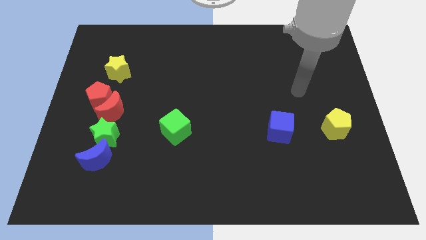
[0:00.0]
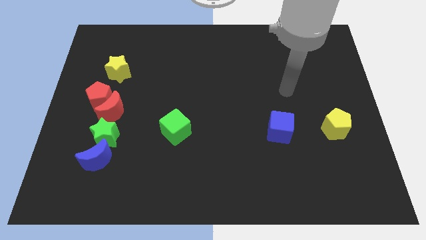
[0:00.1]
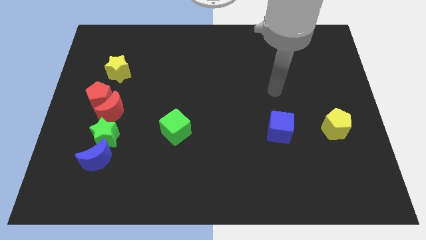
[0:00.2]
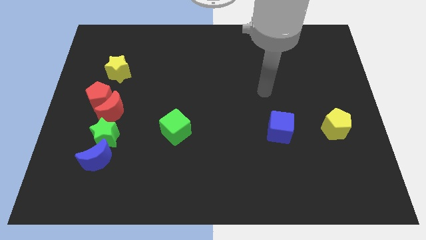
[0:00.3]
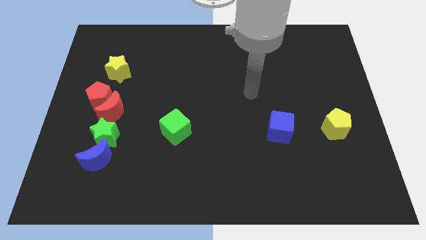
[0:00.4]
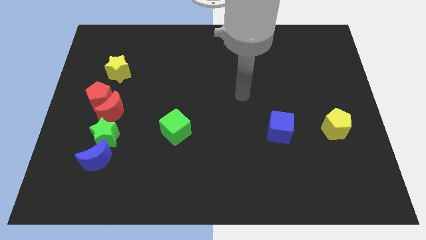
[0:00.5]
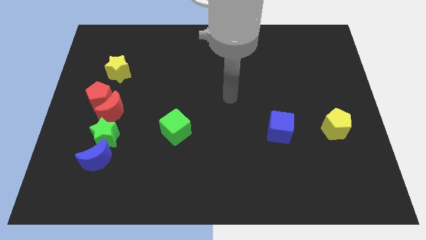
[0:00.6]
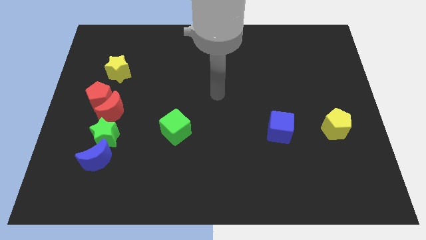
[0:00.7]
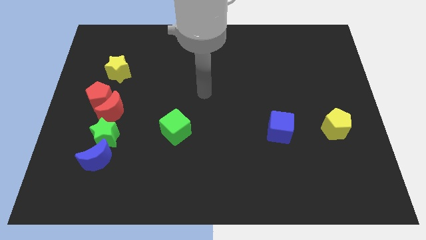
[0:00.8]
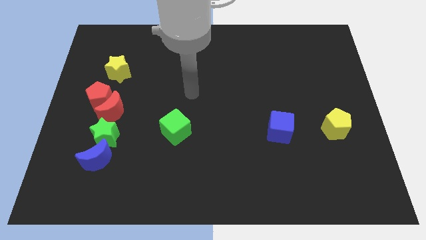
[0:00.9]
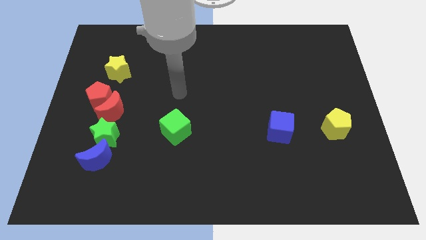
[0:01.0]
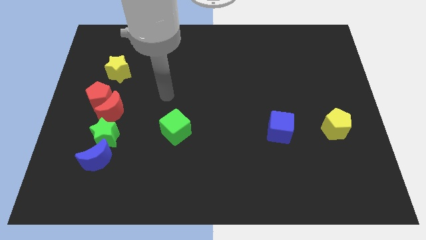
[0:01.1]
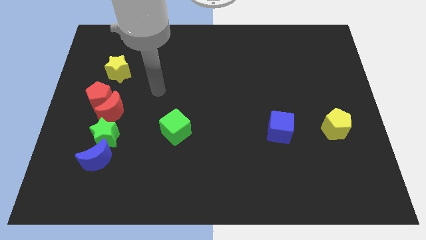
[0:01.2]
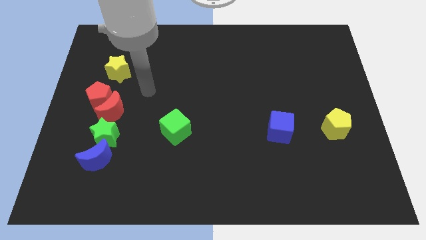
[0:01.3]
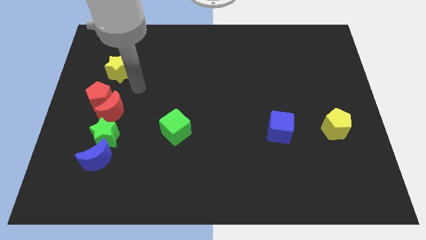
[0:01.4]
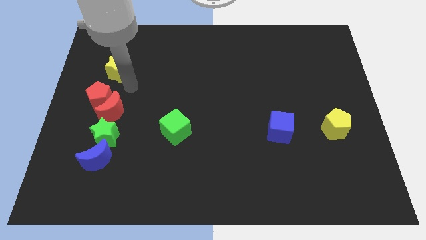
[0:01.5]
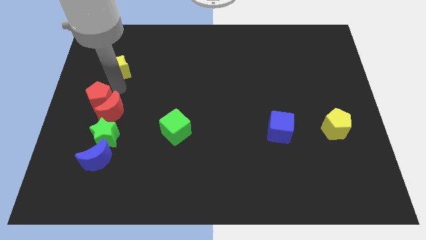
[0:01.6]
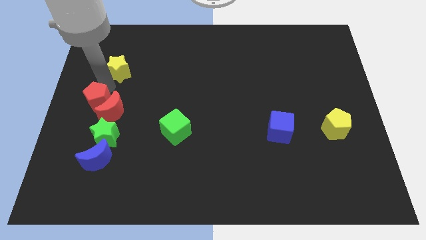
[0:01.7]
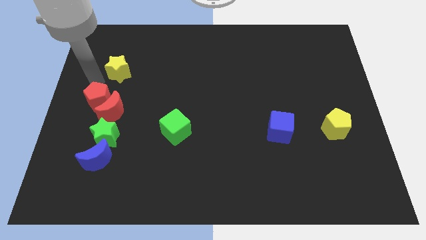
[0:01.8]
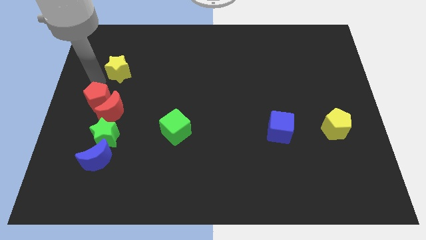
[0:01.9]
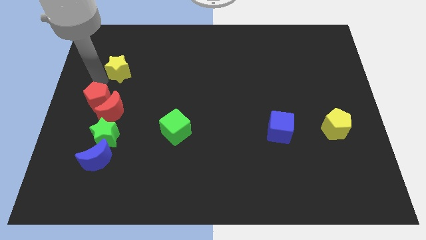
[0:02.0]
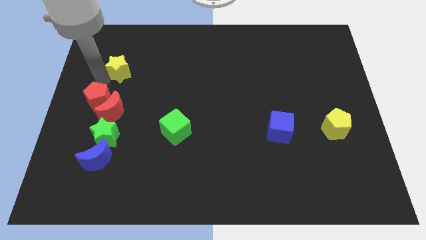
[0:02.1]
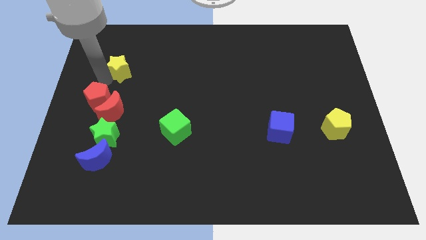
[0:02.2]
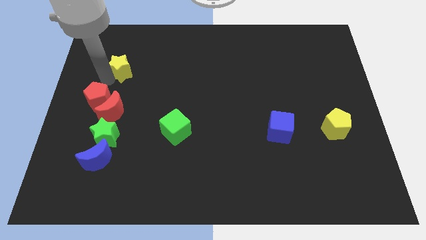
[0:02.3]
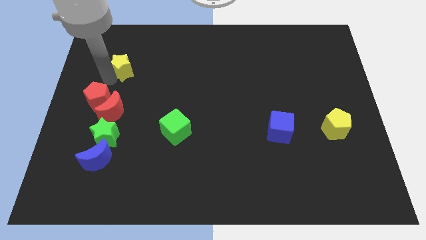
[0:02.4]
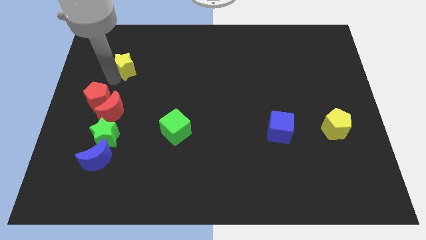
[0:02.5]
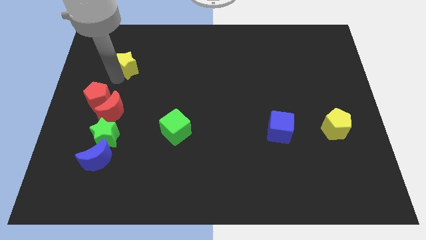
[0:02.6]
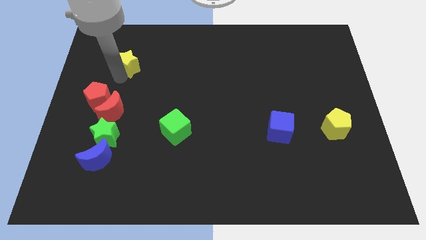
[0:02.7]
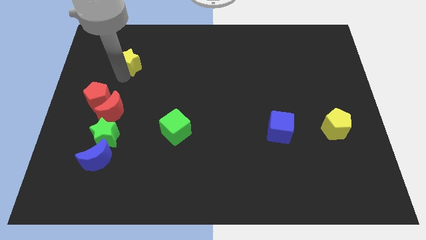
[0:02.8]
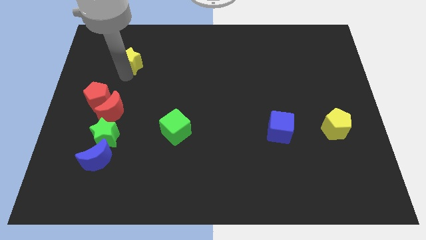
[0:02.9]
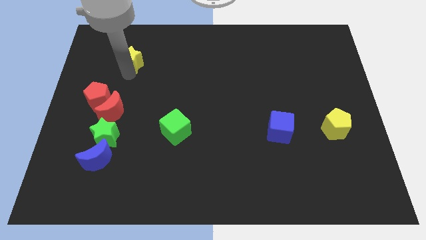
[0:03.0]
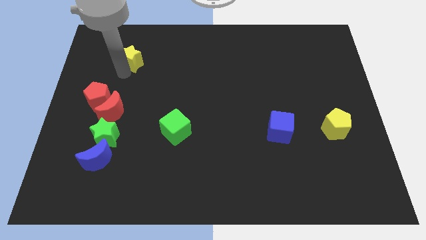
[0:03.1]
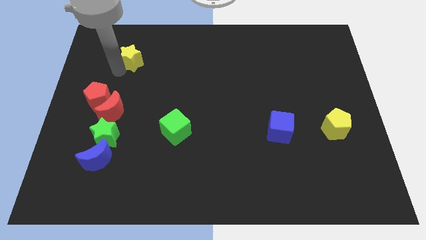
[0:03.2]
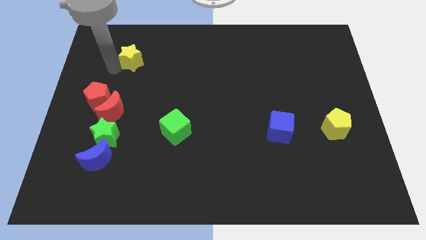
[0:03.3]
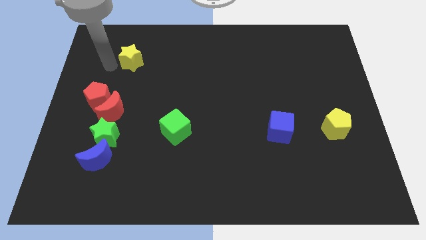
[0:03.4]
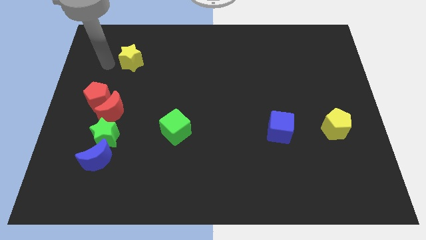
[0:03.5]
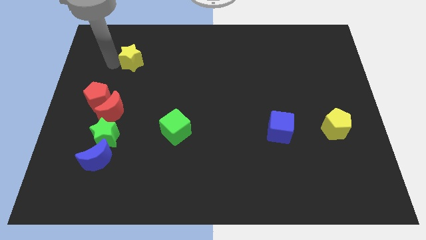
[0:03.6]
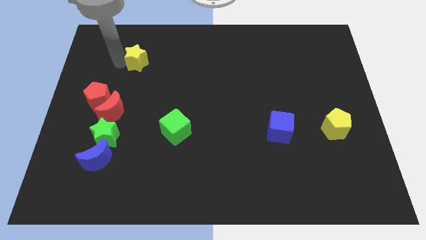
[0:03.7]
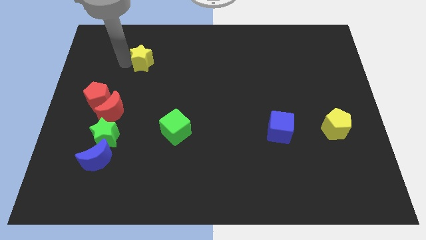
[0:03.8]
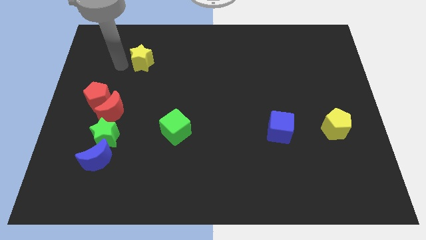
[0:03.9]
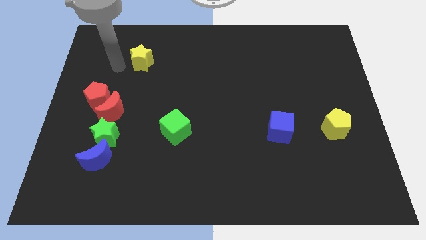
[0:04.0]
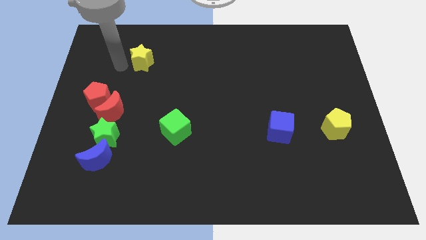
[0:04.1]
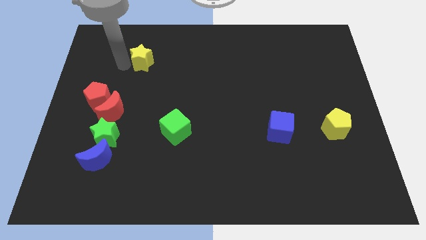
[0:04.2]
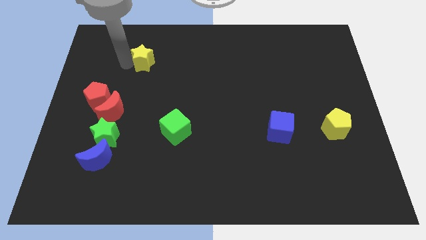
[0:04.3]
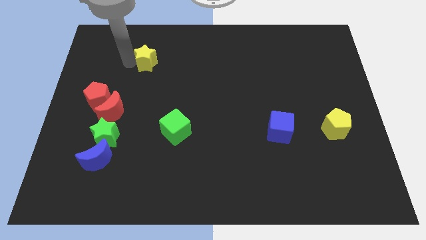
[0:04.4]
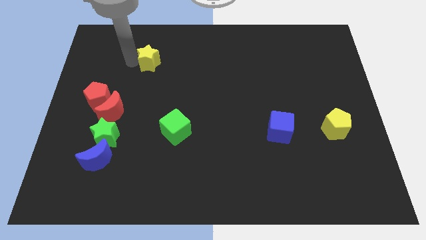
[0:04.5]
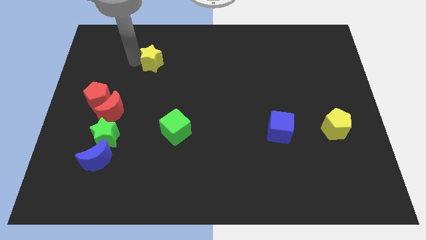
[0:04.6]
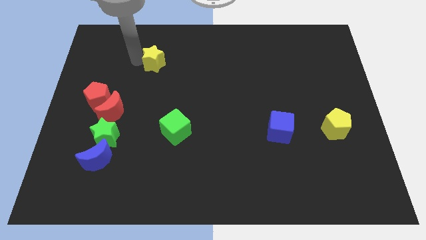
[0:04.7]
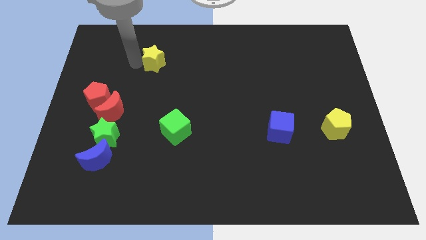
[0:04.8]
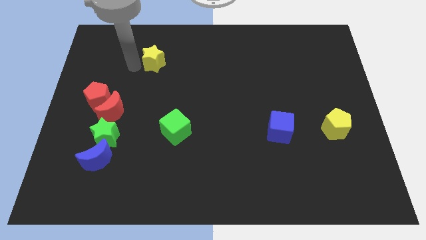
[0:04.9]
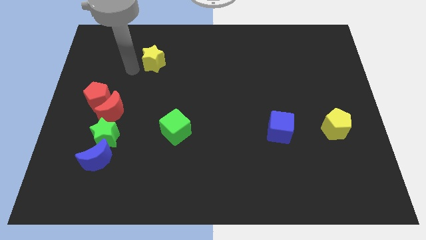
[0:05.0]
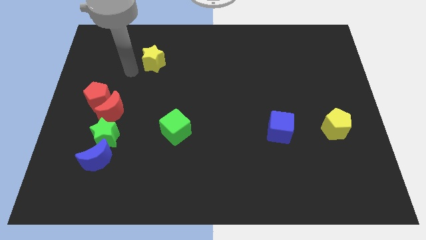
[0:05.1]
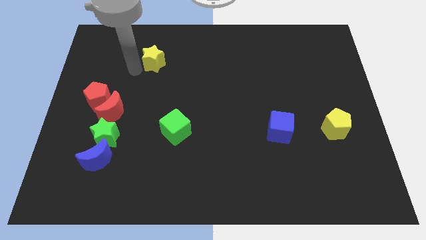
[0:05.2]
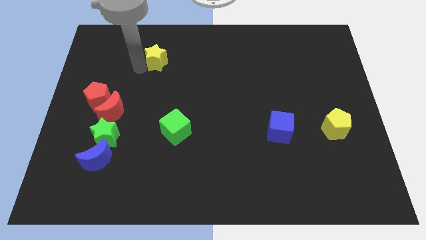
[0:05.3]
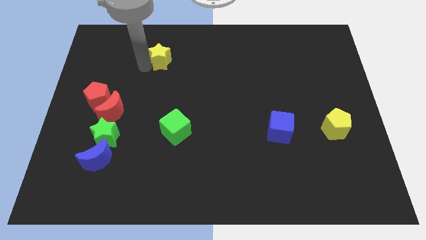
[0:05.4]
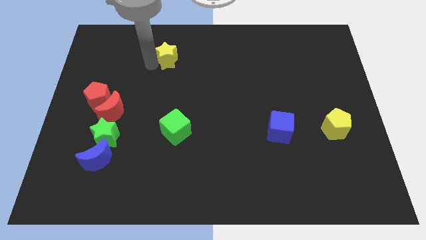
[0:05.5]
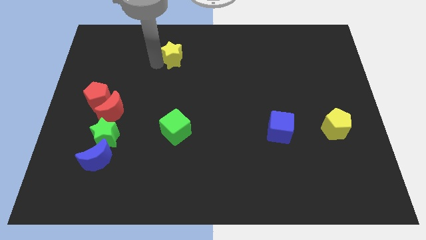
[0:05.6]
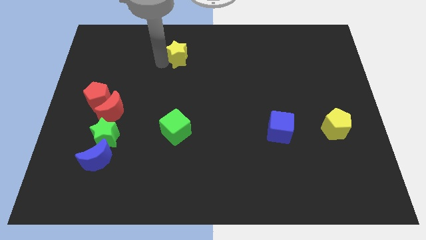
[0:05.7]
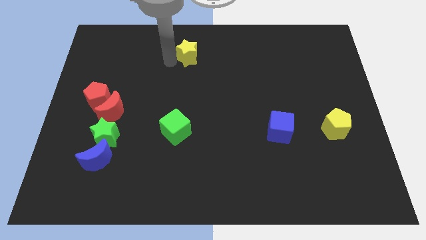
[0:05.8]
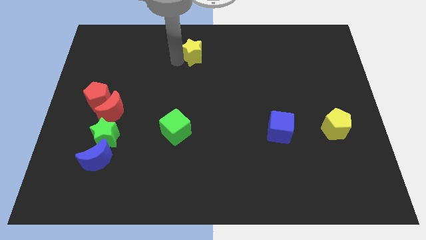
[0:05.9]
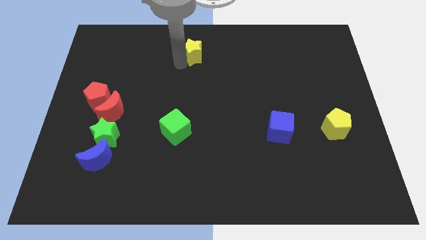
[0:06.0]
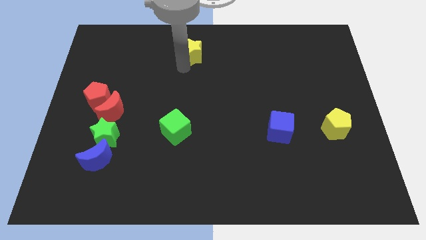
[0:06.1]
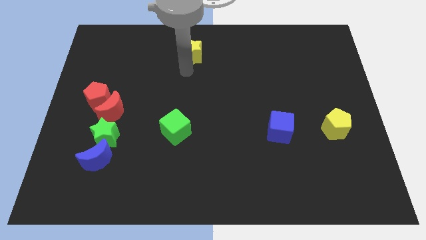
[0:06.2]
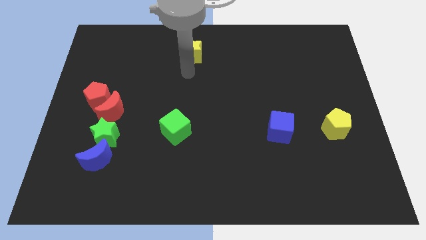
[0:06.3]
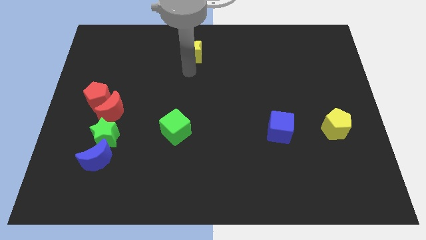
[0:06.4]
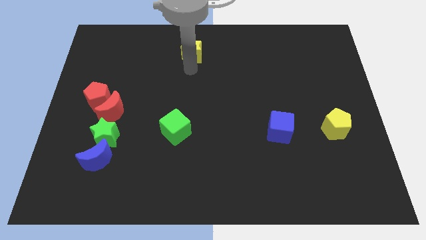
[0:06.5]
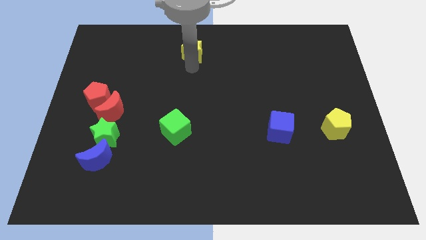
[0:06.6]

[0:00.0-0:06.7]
slide the yellow star to the towards your base
